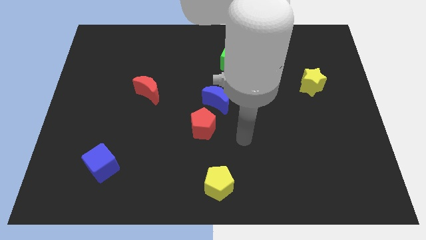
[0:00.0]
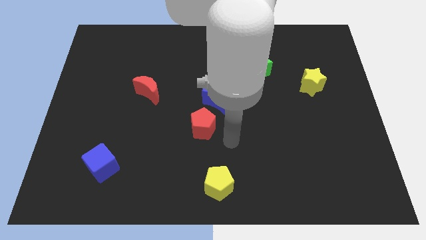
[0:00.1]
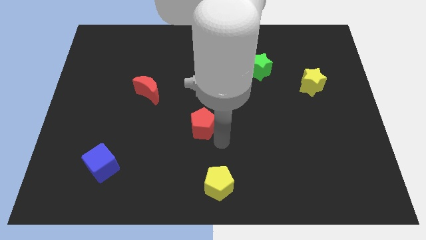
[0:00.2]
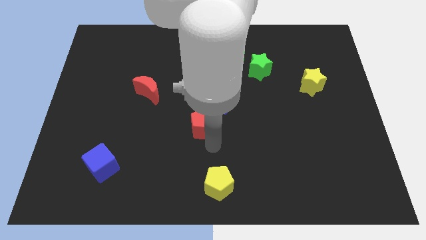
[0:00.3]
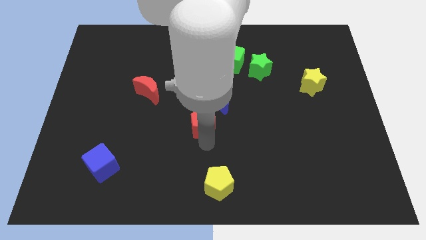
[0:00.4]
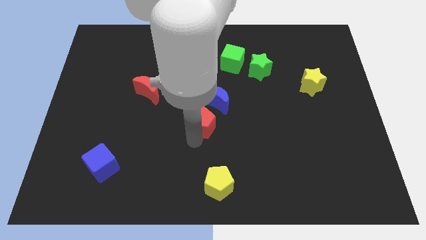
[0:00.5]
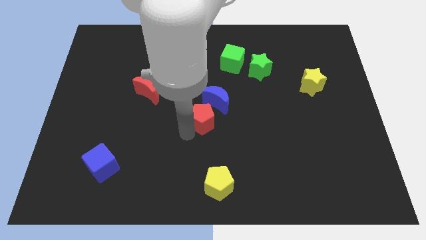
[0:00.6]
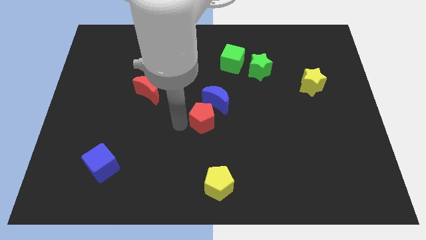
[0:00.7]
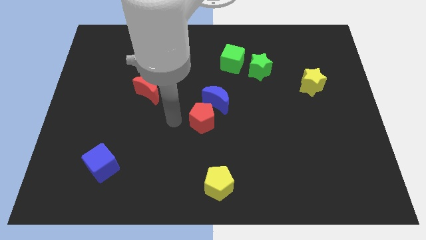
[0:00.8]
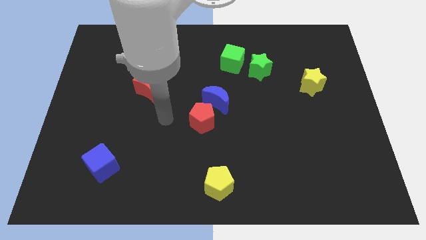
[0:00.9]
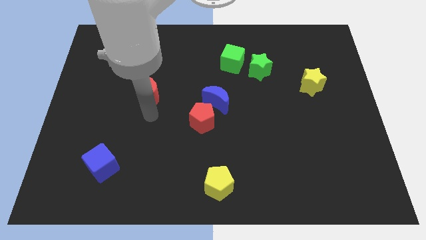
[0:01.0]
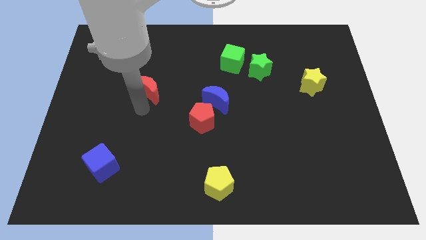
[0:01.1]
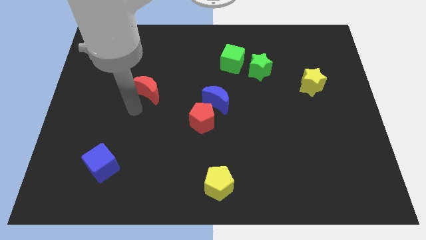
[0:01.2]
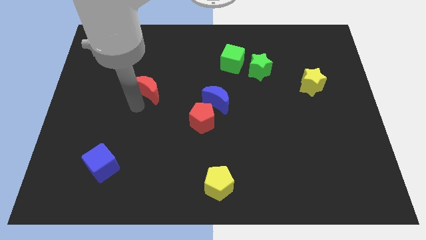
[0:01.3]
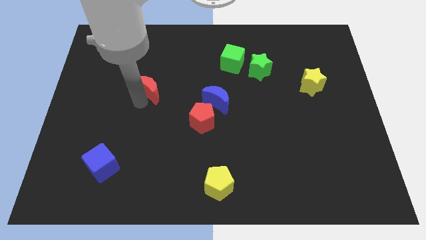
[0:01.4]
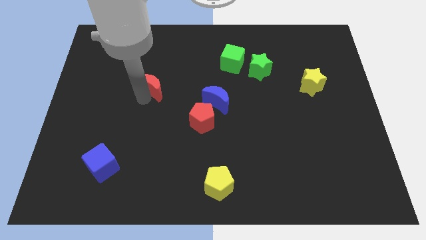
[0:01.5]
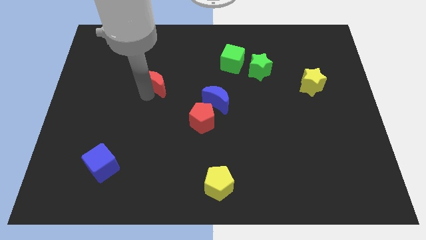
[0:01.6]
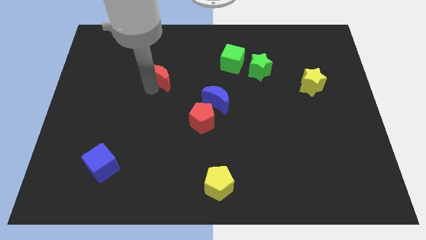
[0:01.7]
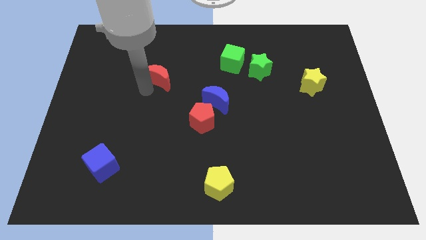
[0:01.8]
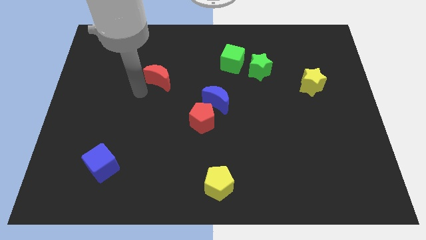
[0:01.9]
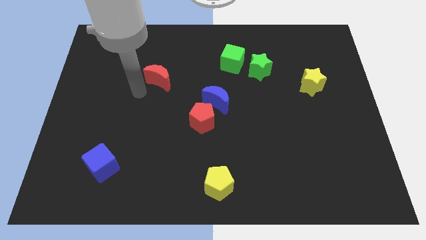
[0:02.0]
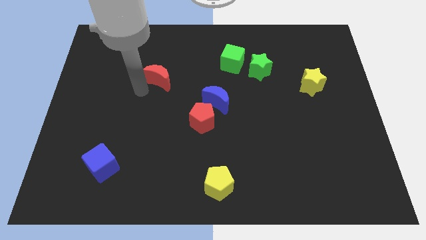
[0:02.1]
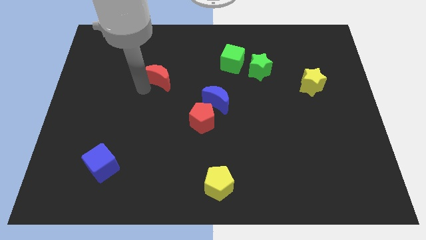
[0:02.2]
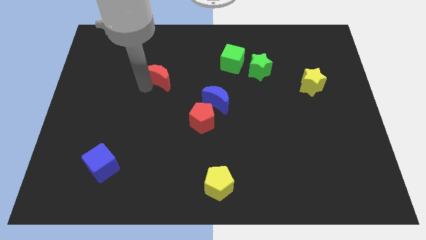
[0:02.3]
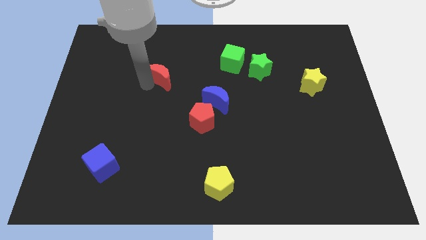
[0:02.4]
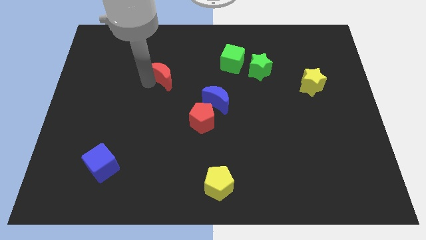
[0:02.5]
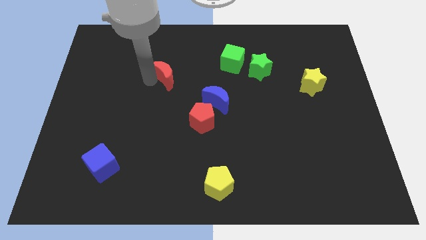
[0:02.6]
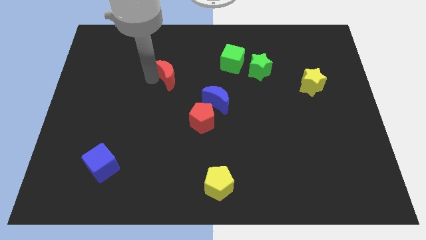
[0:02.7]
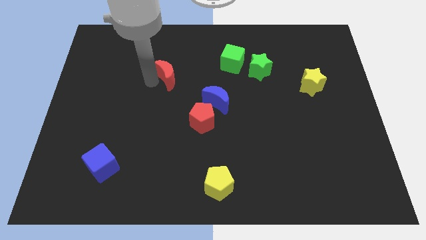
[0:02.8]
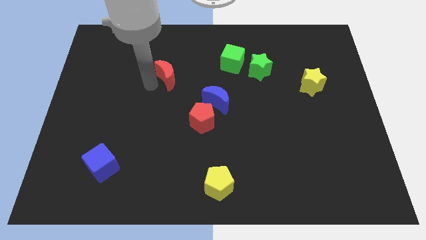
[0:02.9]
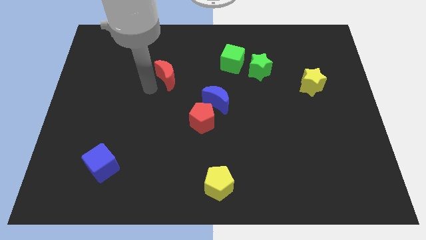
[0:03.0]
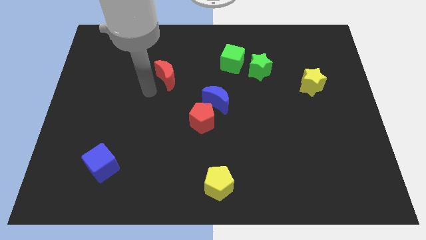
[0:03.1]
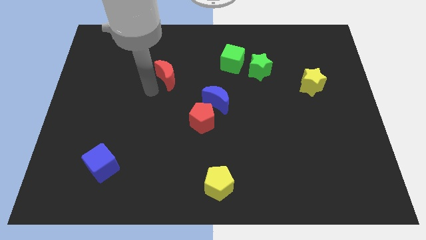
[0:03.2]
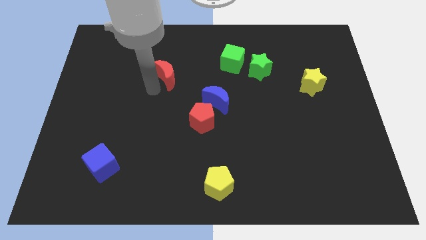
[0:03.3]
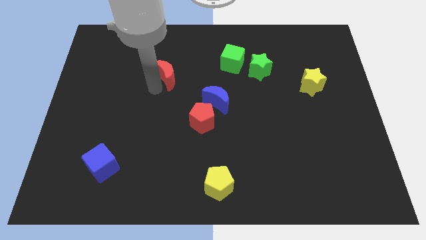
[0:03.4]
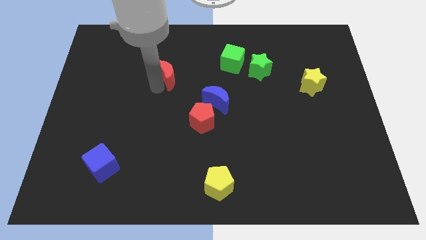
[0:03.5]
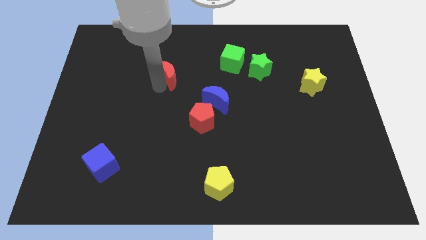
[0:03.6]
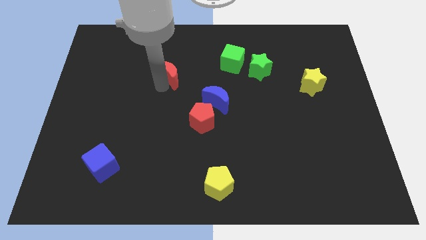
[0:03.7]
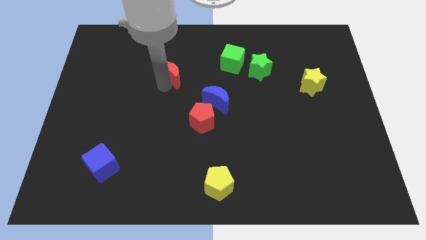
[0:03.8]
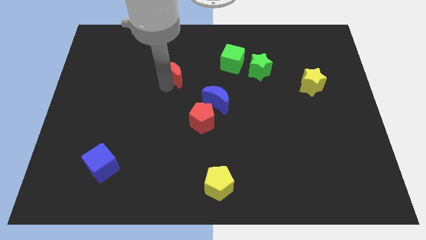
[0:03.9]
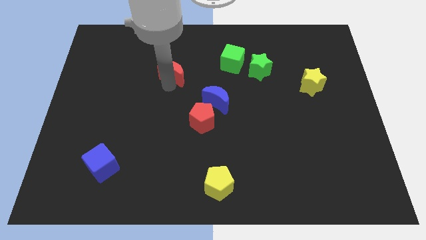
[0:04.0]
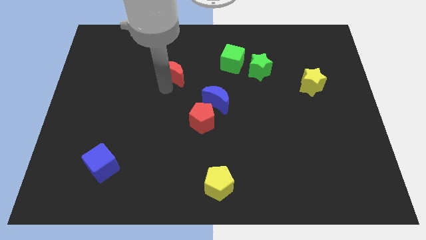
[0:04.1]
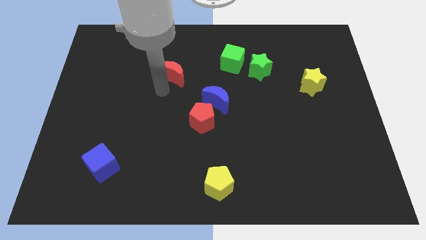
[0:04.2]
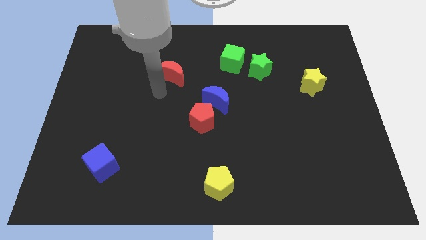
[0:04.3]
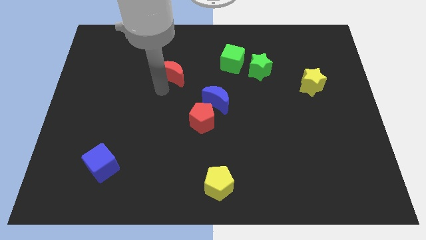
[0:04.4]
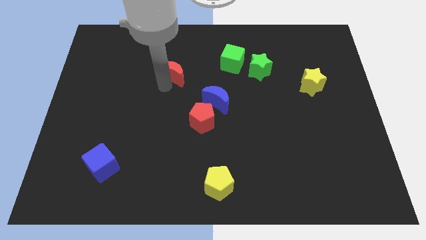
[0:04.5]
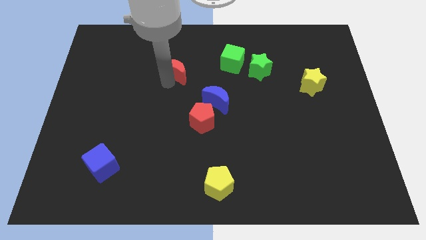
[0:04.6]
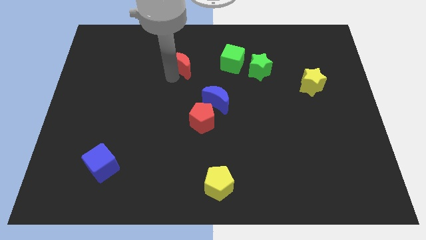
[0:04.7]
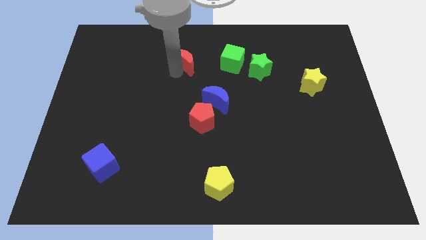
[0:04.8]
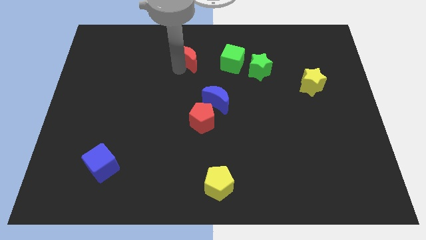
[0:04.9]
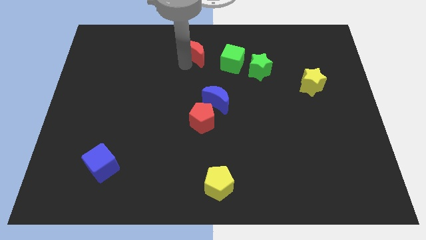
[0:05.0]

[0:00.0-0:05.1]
move the red moon to the towards your base

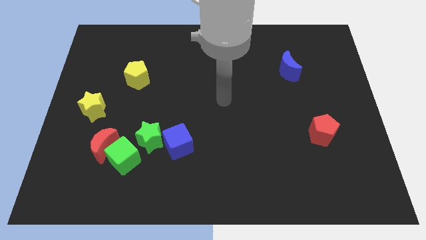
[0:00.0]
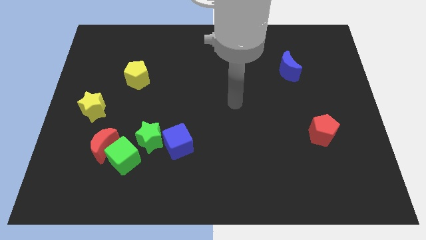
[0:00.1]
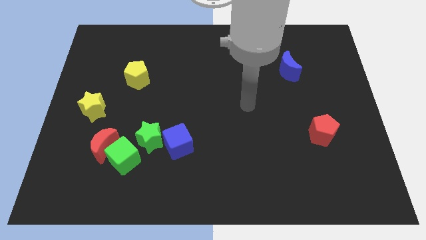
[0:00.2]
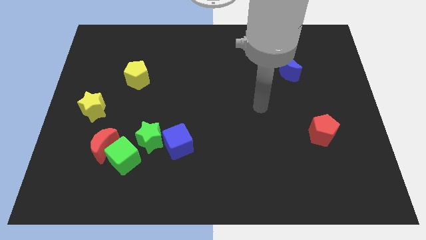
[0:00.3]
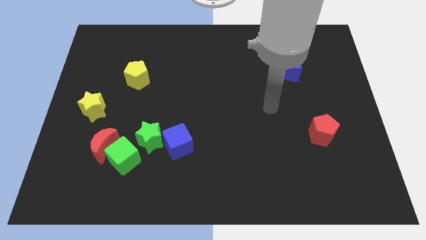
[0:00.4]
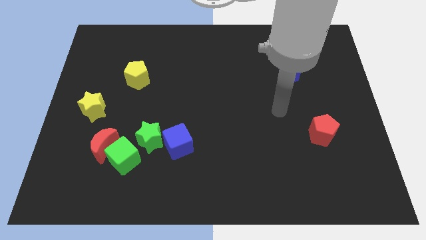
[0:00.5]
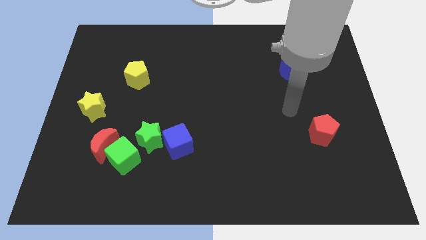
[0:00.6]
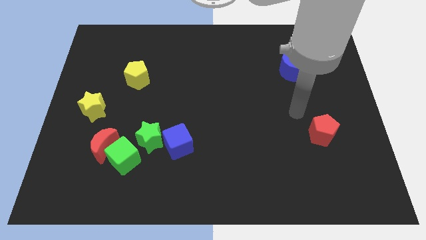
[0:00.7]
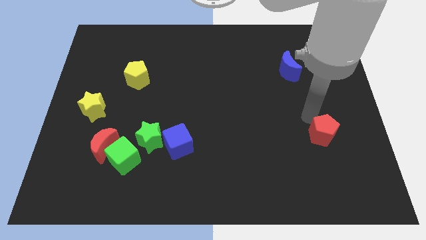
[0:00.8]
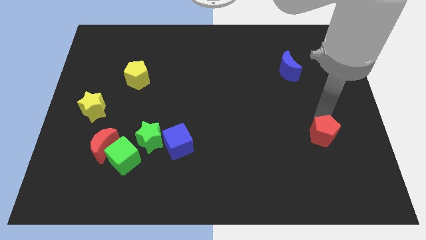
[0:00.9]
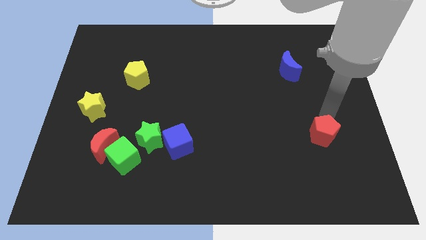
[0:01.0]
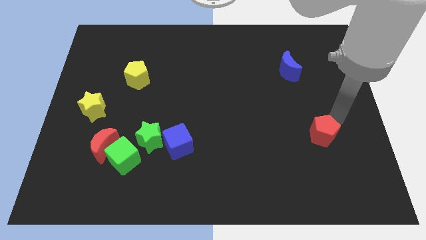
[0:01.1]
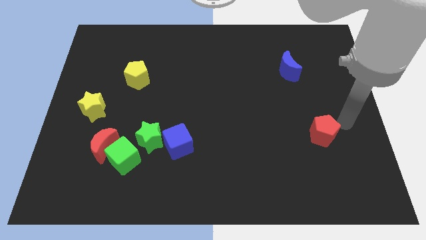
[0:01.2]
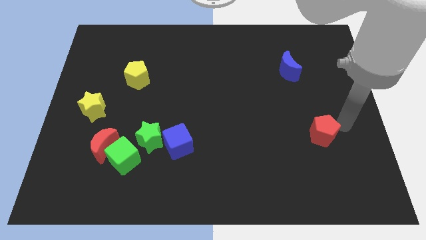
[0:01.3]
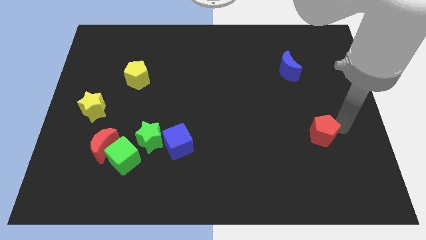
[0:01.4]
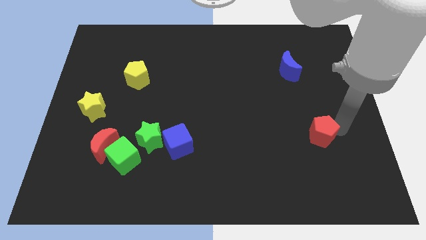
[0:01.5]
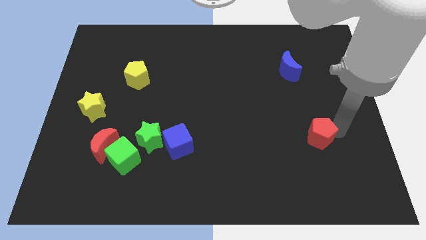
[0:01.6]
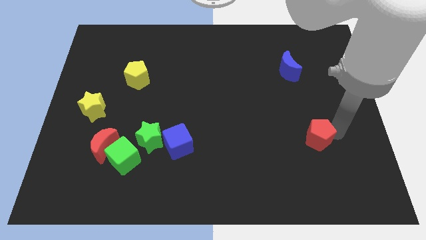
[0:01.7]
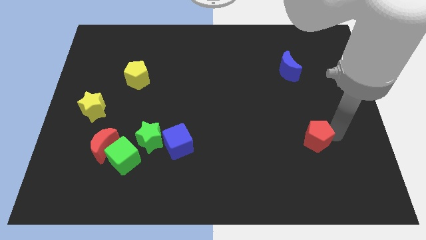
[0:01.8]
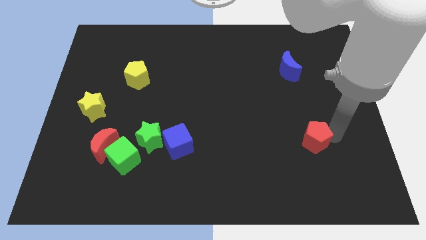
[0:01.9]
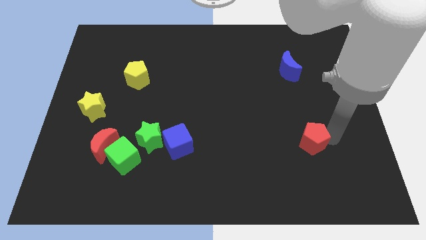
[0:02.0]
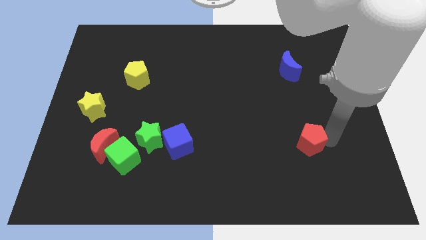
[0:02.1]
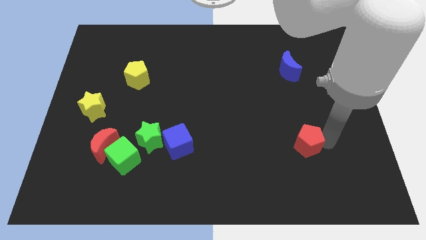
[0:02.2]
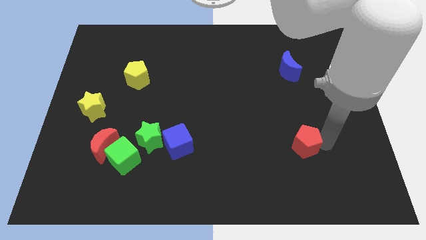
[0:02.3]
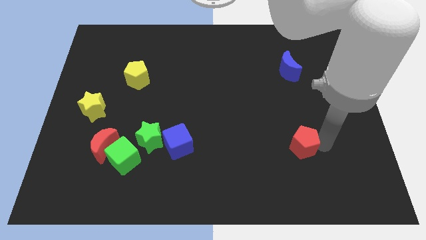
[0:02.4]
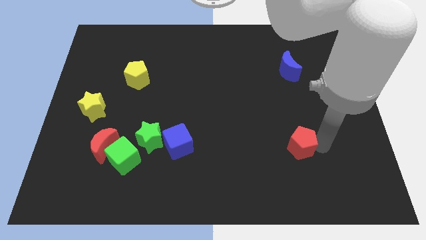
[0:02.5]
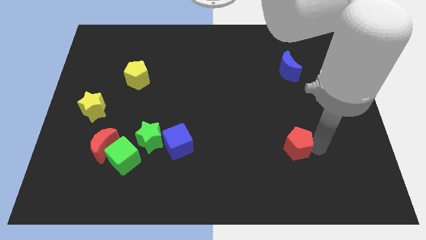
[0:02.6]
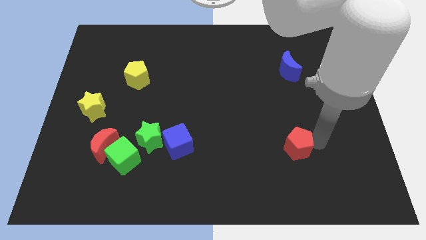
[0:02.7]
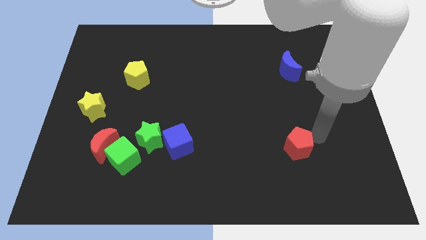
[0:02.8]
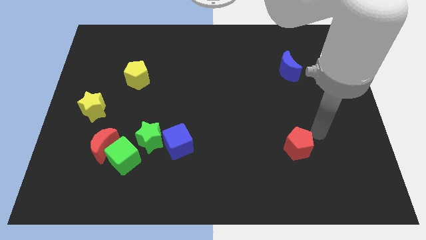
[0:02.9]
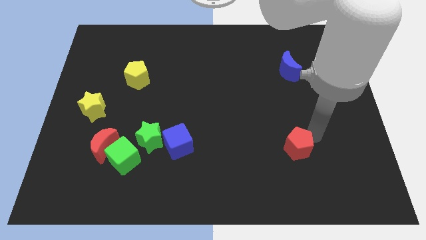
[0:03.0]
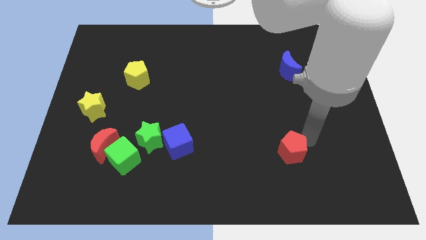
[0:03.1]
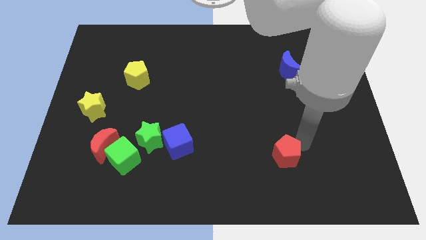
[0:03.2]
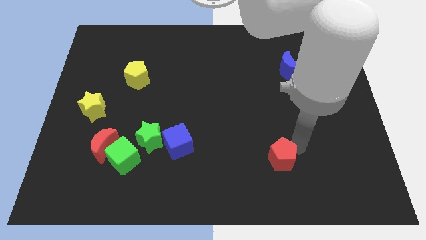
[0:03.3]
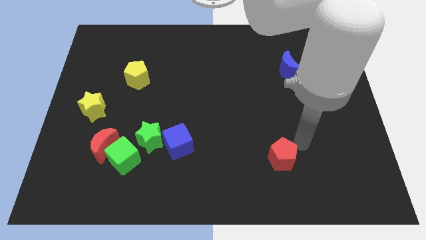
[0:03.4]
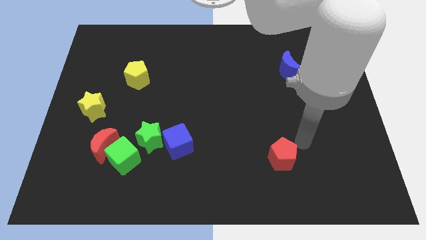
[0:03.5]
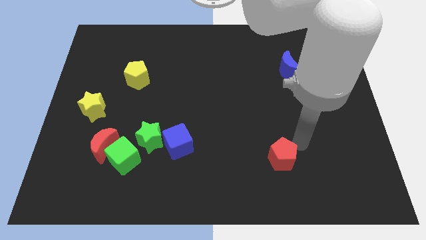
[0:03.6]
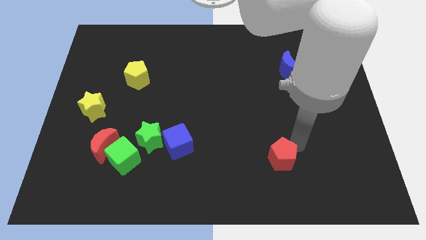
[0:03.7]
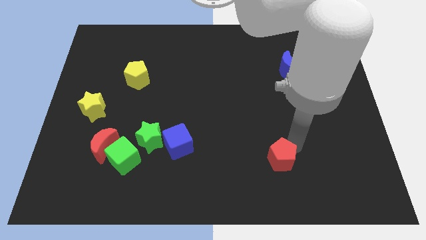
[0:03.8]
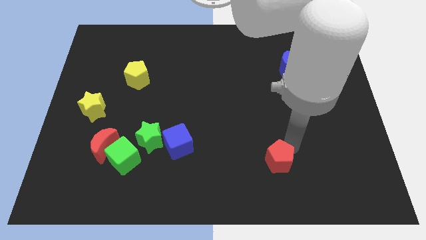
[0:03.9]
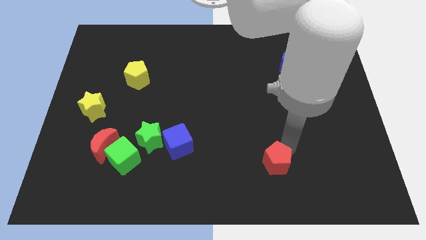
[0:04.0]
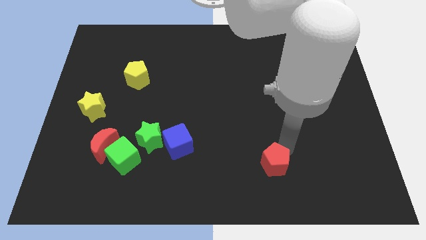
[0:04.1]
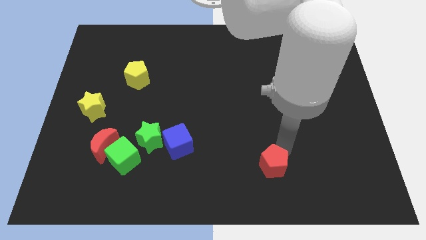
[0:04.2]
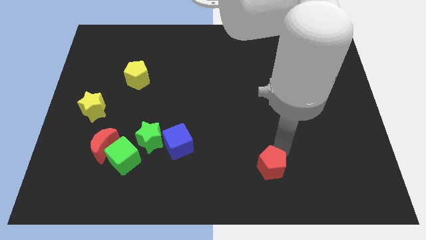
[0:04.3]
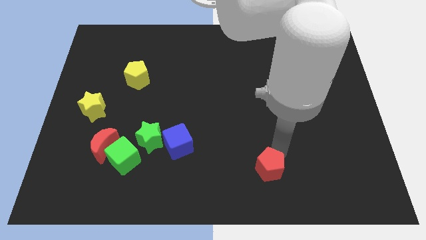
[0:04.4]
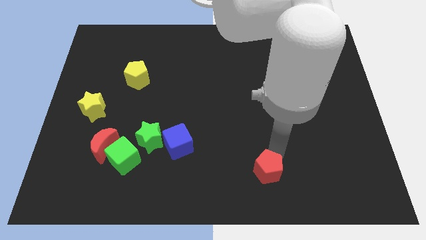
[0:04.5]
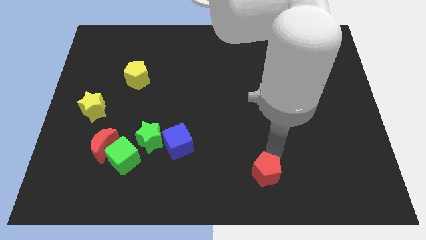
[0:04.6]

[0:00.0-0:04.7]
move the red pentagon to the bottom
